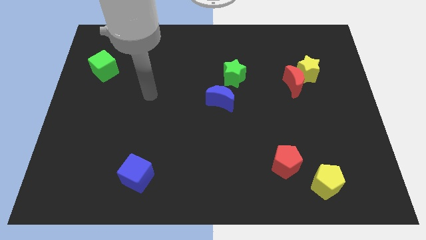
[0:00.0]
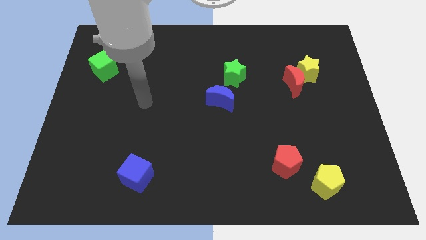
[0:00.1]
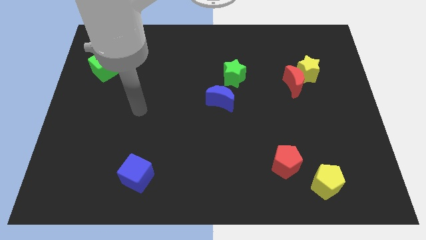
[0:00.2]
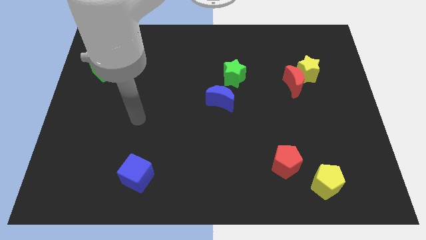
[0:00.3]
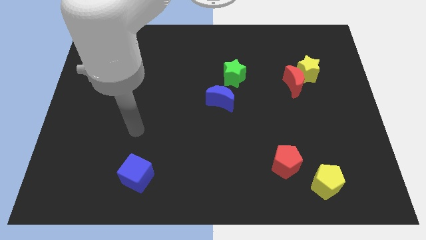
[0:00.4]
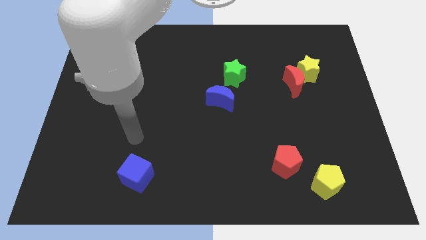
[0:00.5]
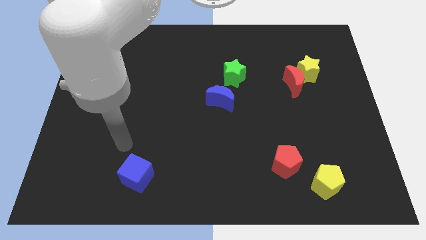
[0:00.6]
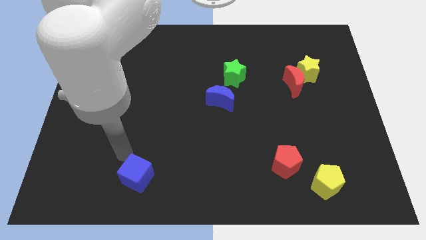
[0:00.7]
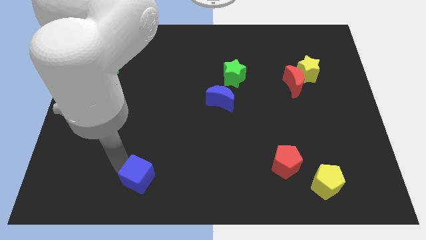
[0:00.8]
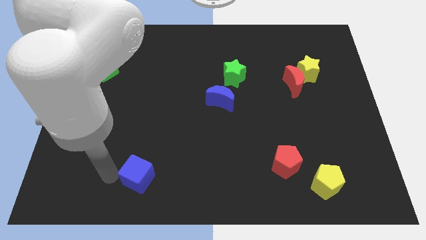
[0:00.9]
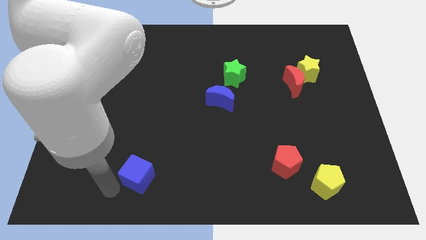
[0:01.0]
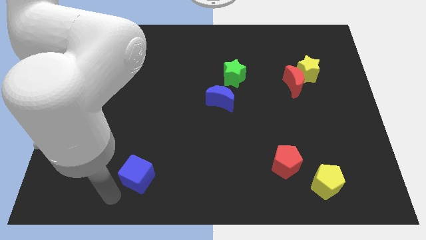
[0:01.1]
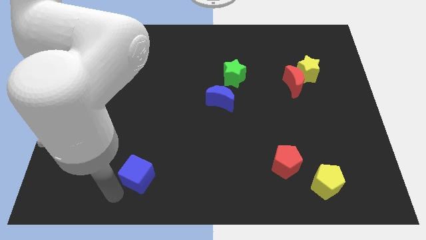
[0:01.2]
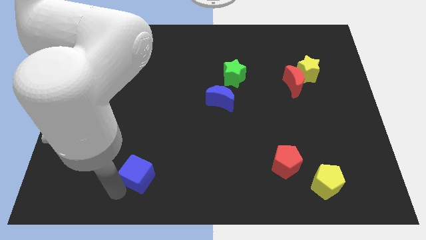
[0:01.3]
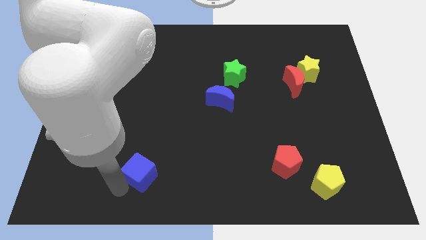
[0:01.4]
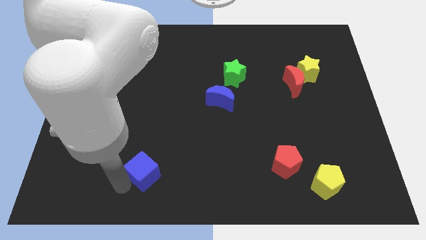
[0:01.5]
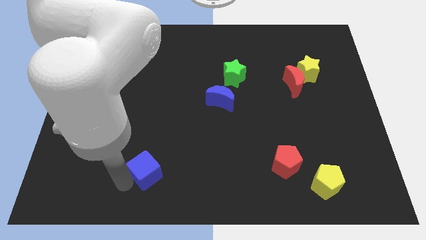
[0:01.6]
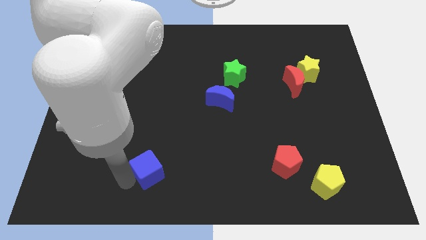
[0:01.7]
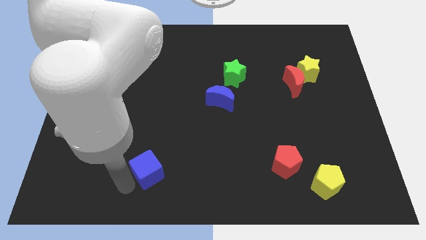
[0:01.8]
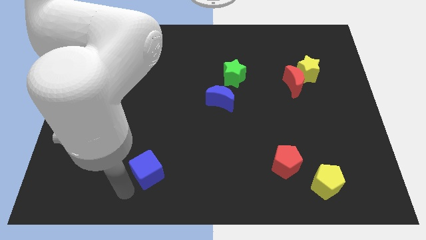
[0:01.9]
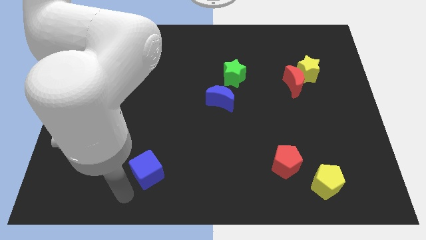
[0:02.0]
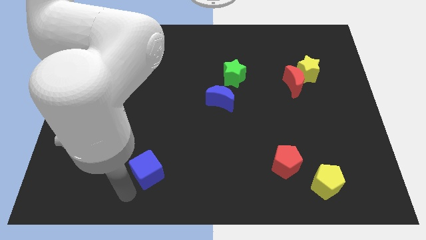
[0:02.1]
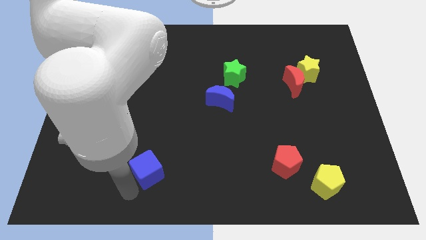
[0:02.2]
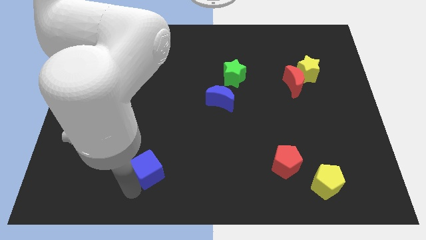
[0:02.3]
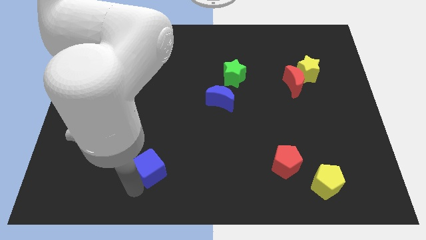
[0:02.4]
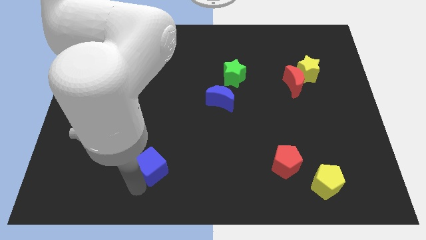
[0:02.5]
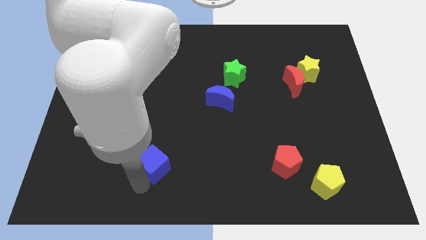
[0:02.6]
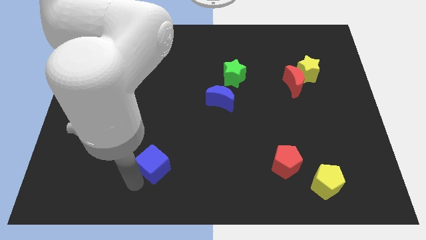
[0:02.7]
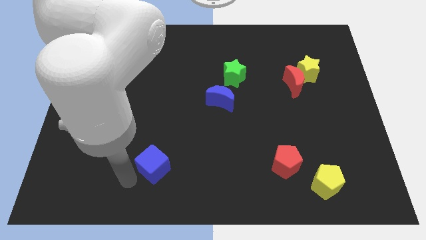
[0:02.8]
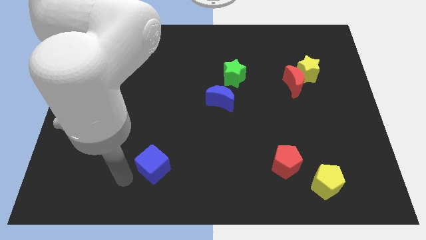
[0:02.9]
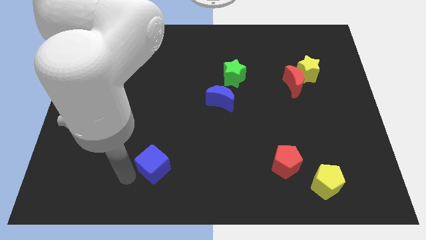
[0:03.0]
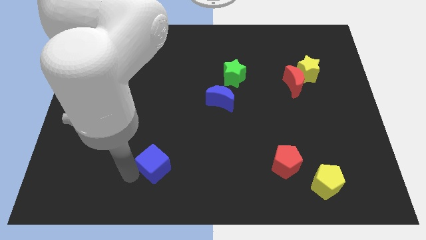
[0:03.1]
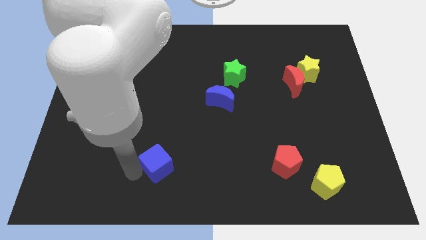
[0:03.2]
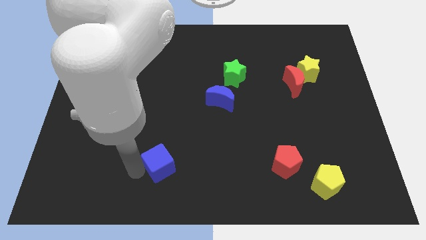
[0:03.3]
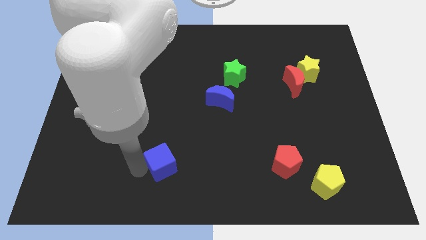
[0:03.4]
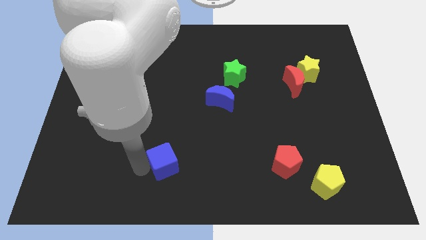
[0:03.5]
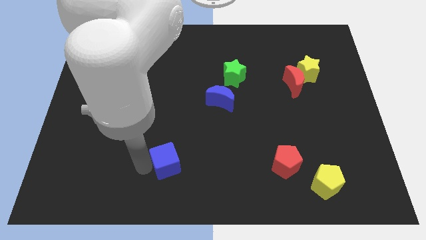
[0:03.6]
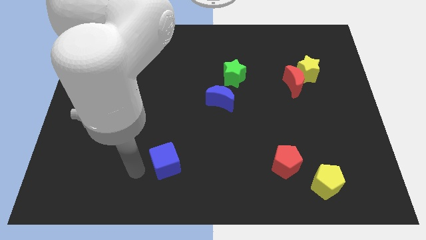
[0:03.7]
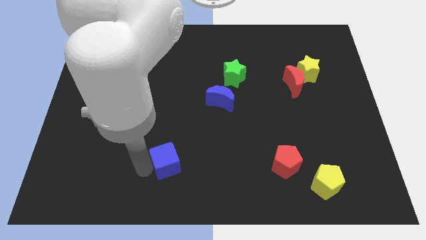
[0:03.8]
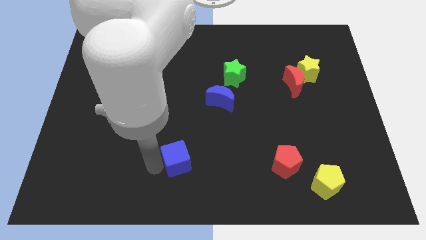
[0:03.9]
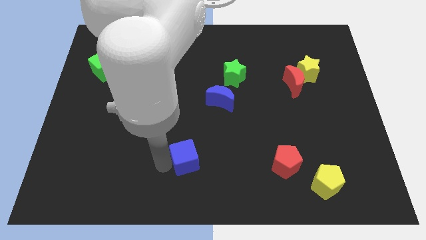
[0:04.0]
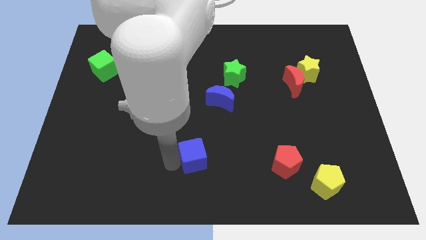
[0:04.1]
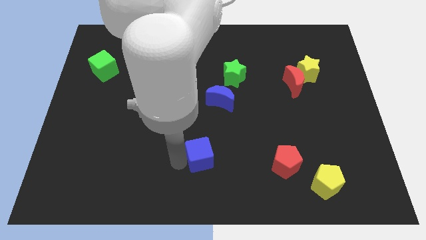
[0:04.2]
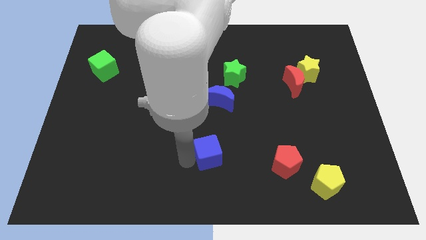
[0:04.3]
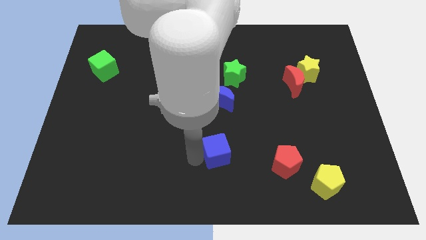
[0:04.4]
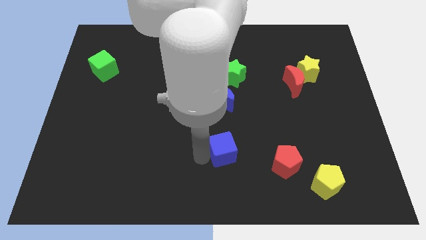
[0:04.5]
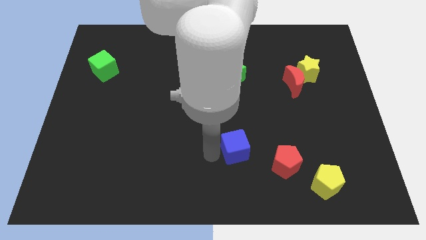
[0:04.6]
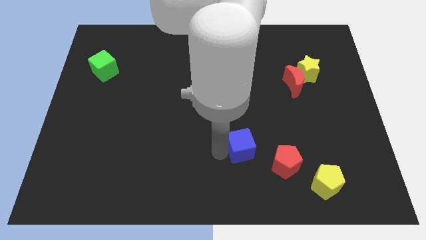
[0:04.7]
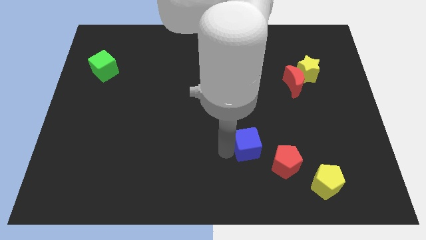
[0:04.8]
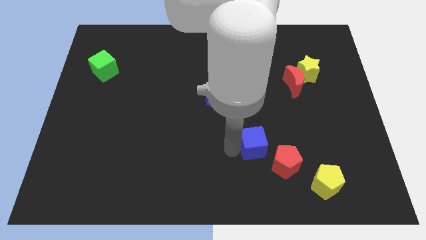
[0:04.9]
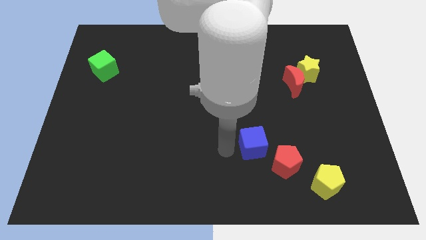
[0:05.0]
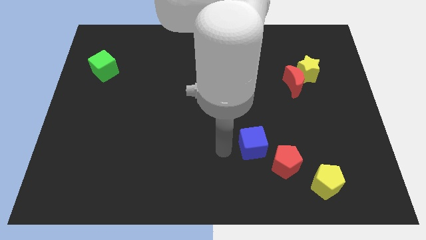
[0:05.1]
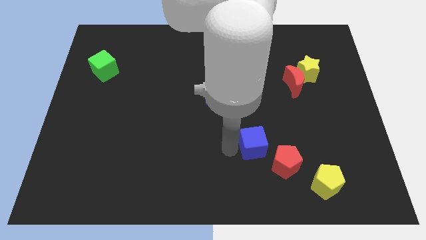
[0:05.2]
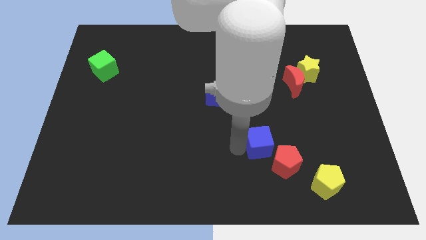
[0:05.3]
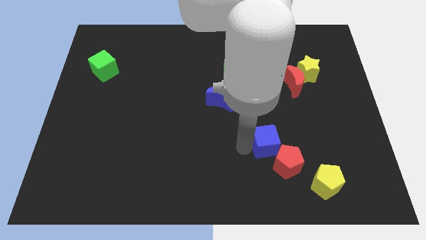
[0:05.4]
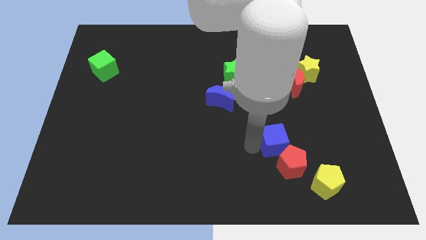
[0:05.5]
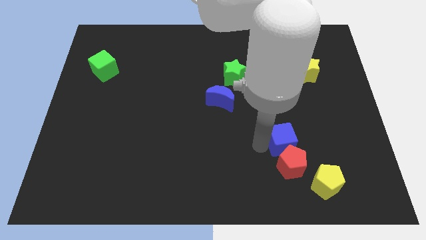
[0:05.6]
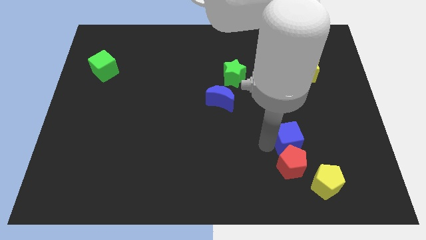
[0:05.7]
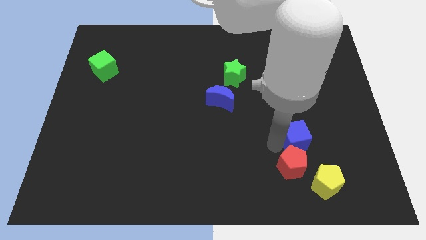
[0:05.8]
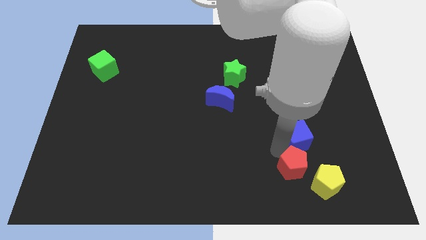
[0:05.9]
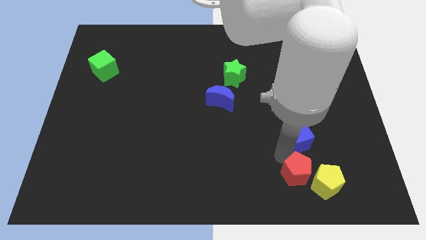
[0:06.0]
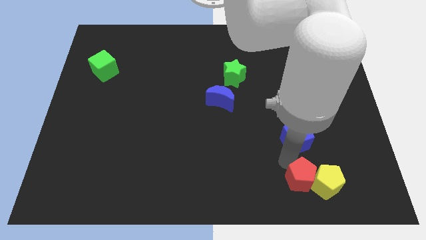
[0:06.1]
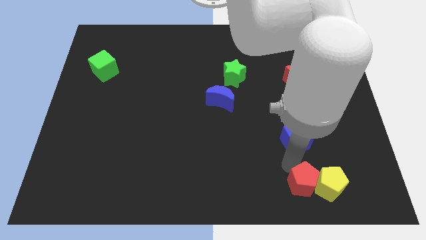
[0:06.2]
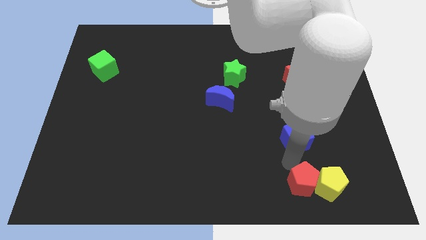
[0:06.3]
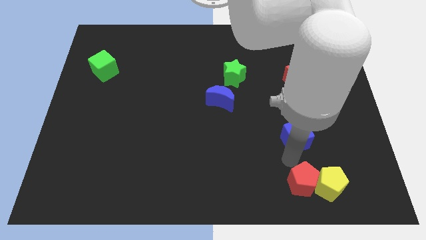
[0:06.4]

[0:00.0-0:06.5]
put the blue cube below the red moon

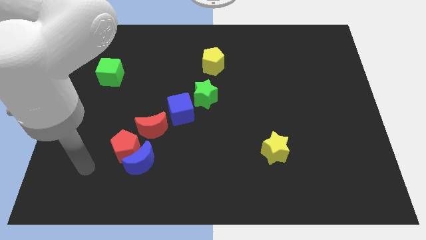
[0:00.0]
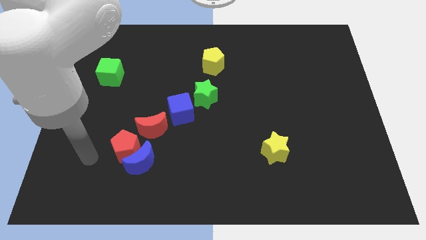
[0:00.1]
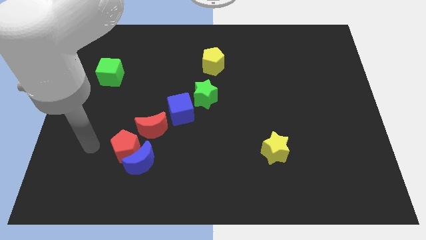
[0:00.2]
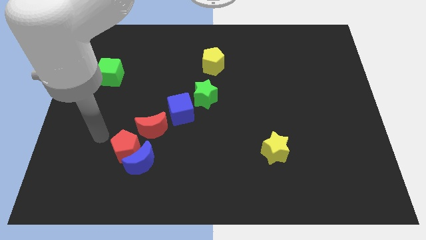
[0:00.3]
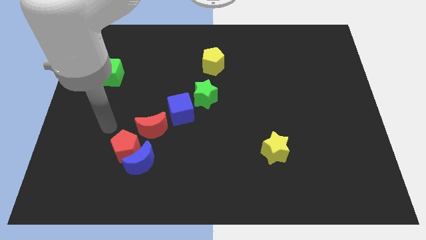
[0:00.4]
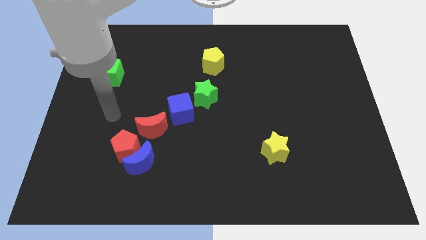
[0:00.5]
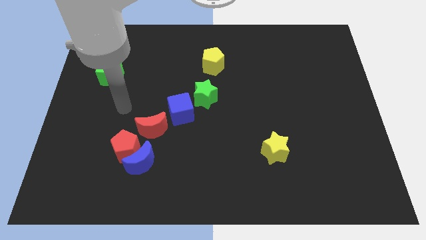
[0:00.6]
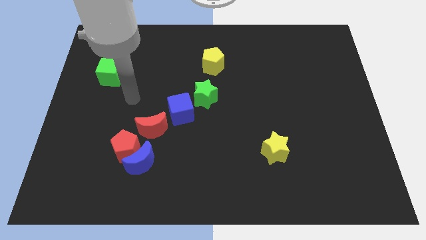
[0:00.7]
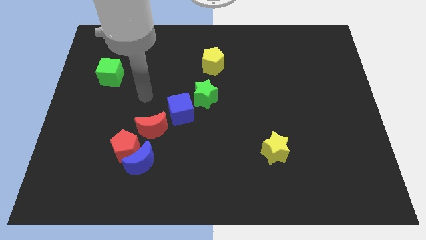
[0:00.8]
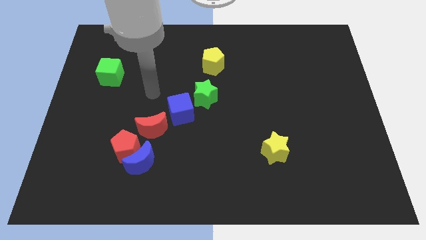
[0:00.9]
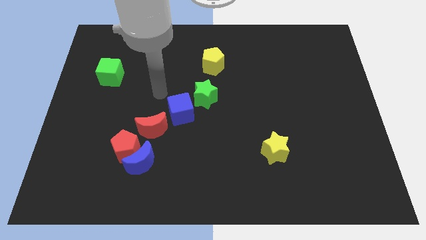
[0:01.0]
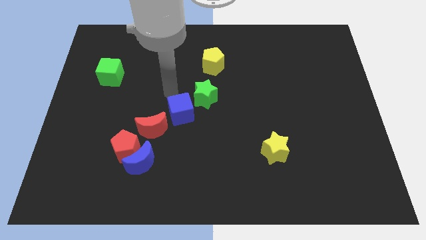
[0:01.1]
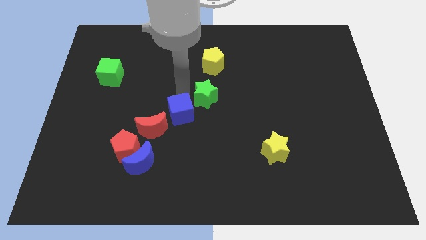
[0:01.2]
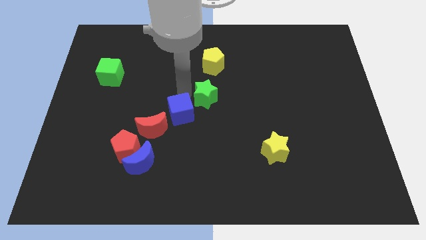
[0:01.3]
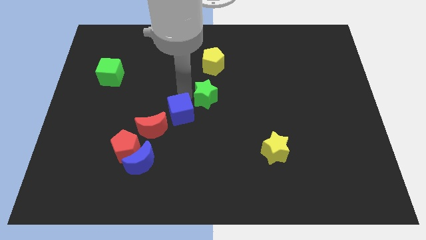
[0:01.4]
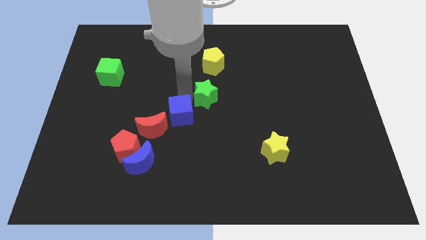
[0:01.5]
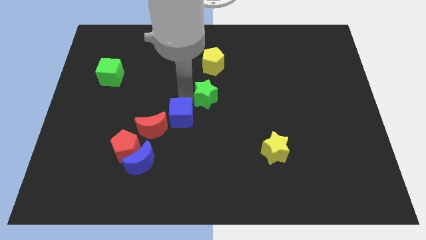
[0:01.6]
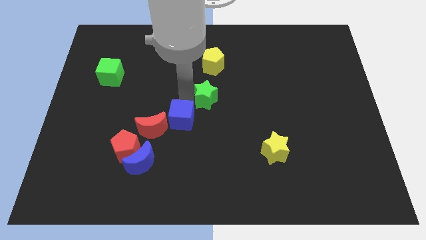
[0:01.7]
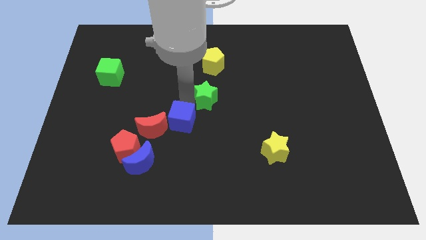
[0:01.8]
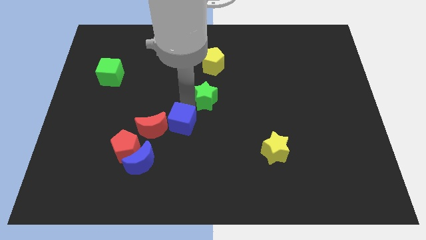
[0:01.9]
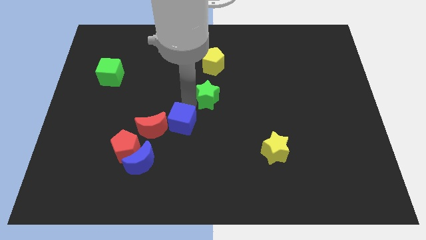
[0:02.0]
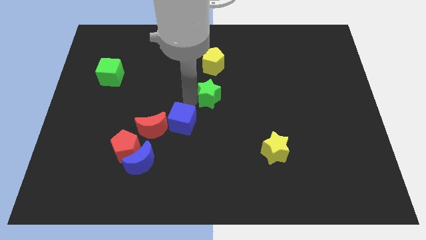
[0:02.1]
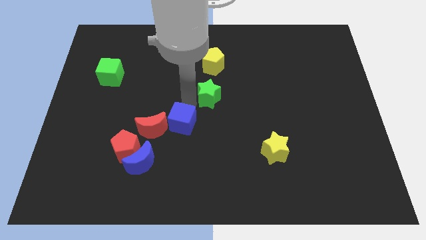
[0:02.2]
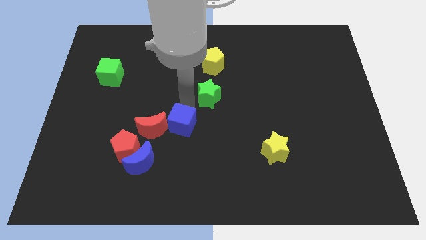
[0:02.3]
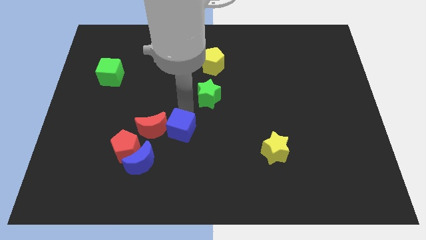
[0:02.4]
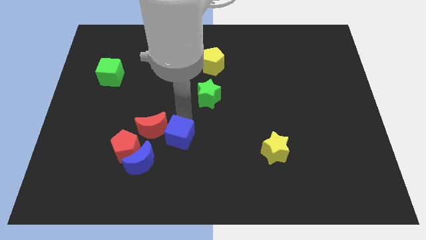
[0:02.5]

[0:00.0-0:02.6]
put the blue cube right of the red pentagon
